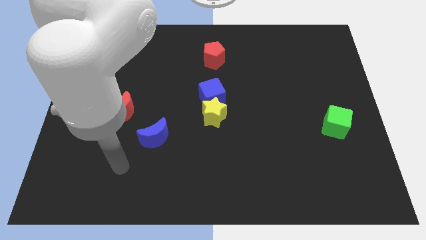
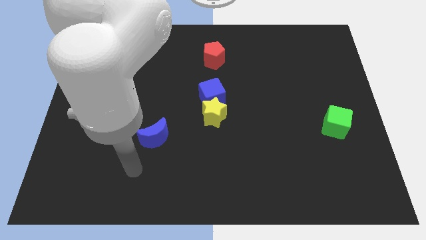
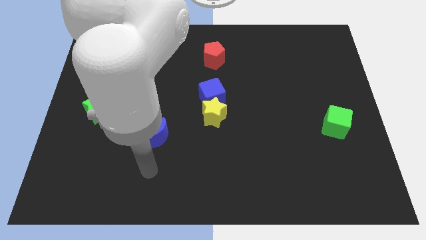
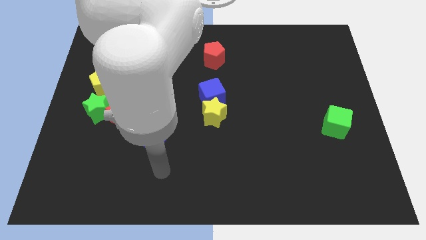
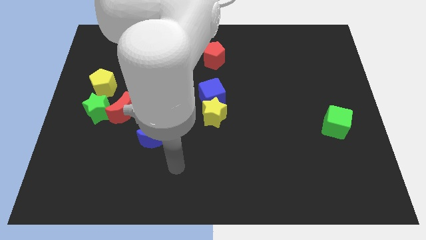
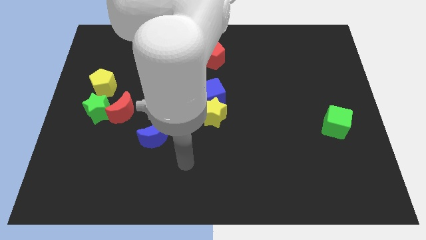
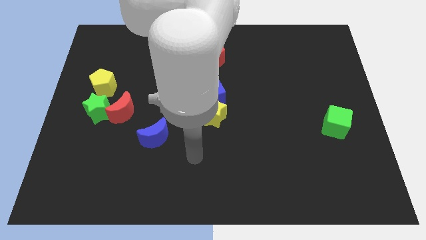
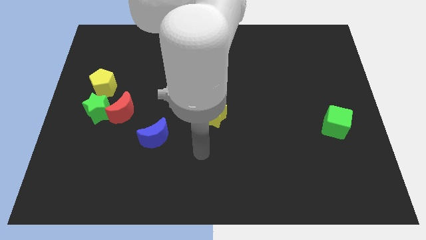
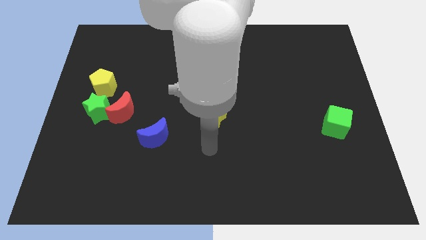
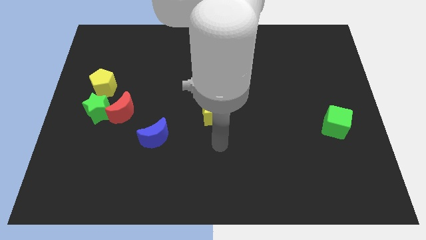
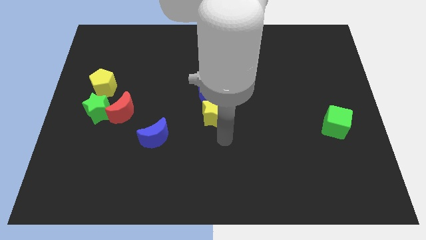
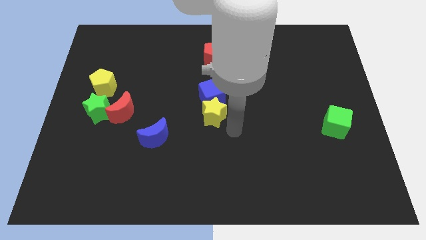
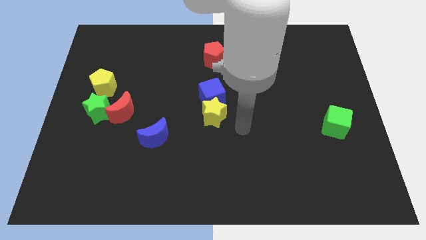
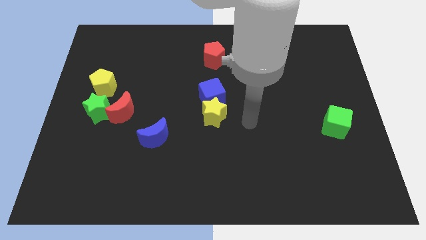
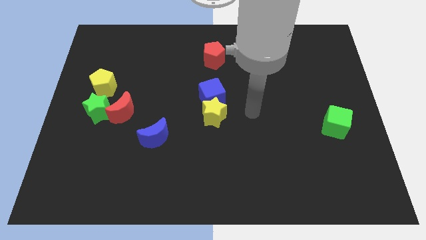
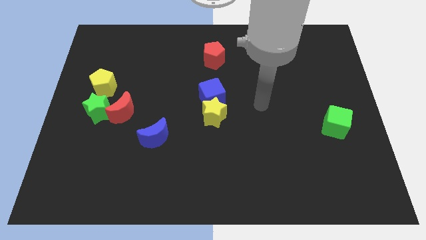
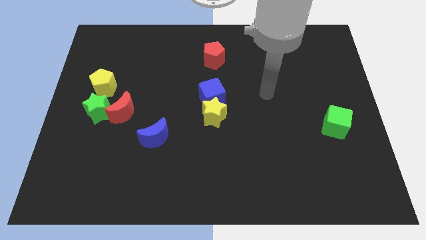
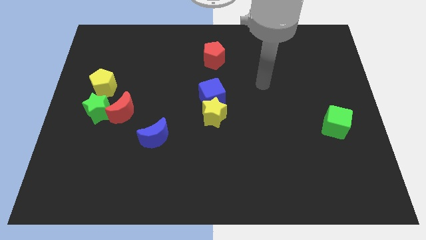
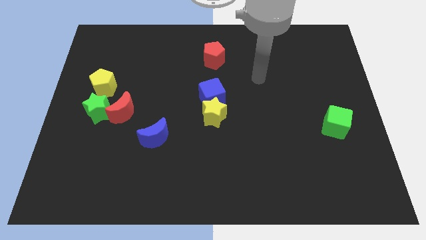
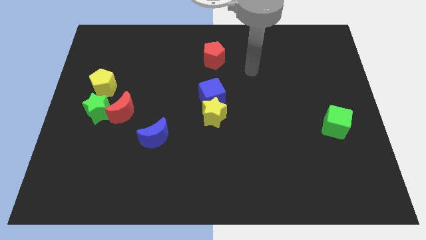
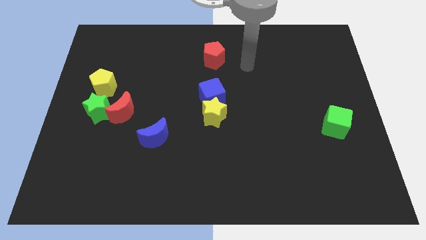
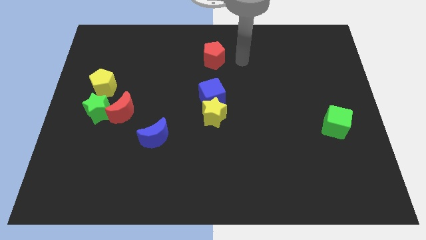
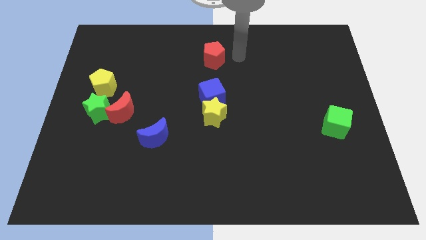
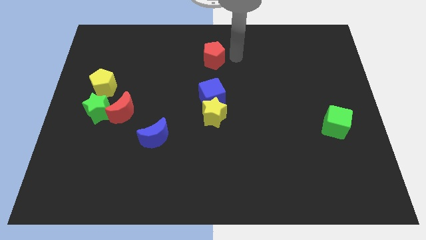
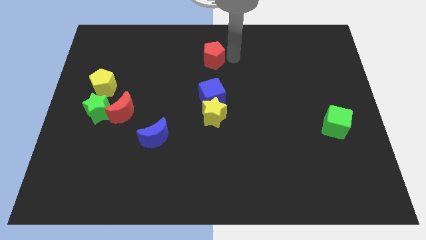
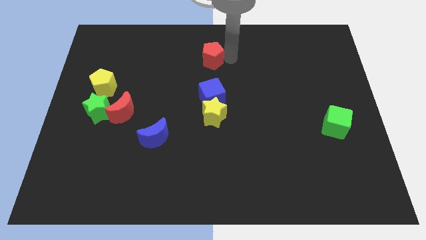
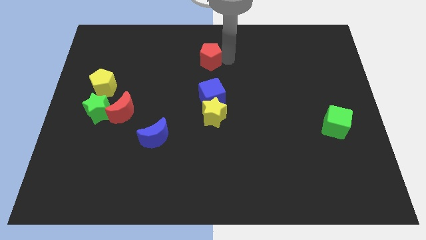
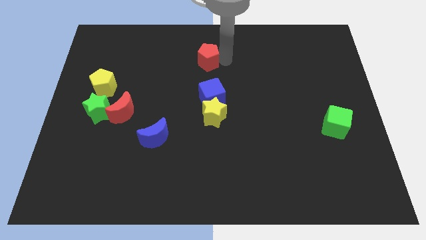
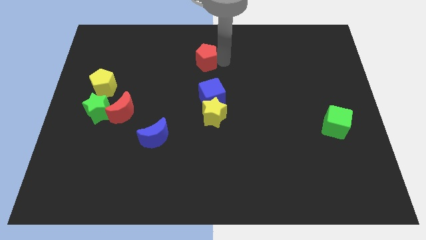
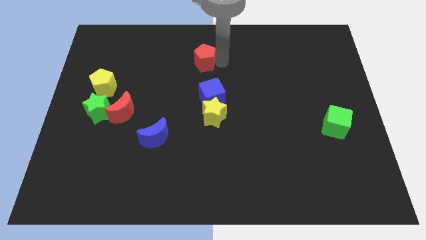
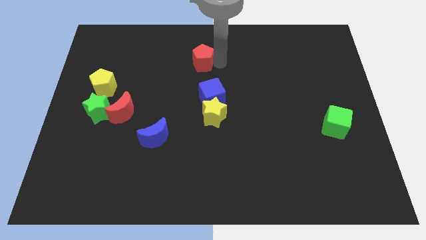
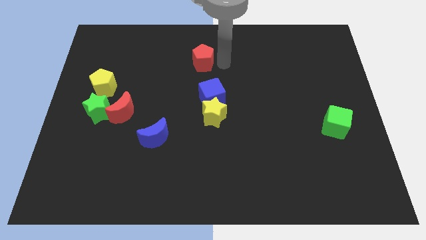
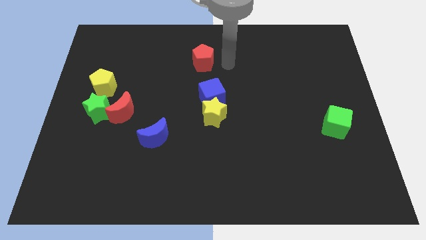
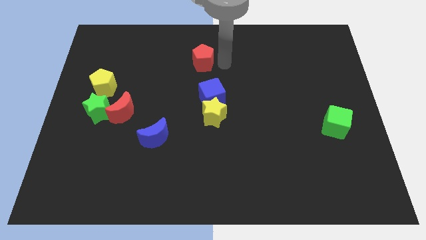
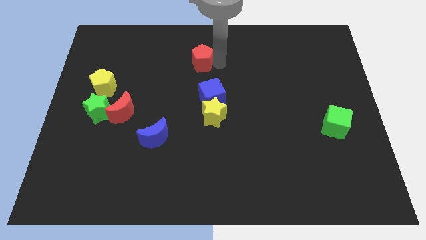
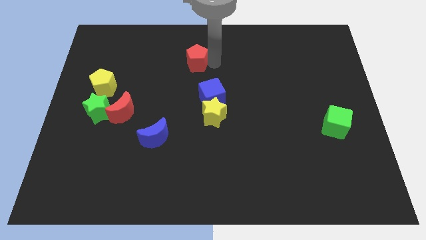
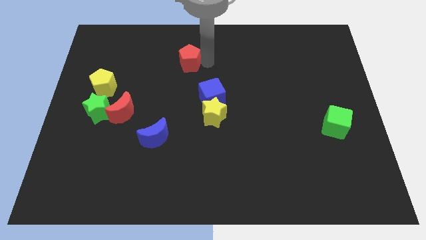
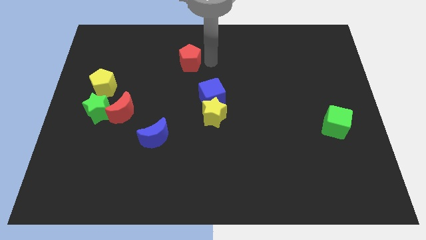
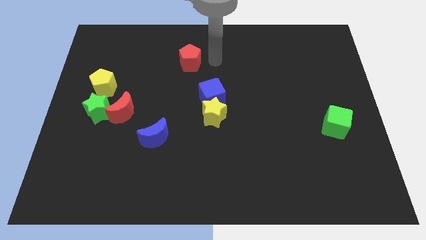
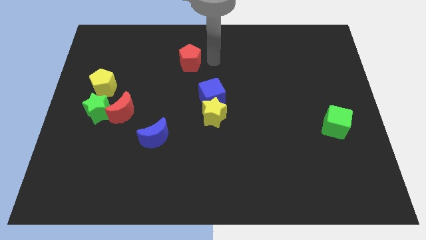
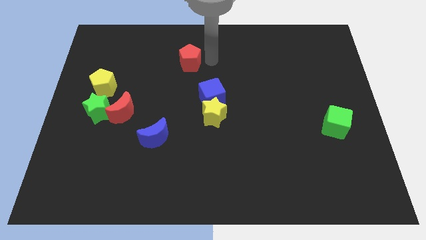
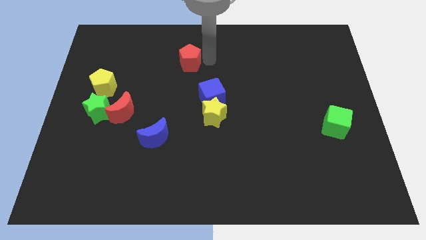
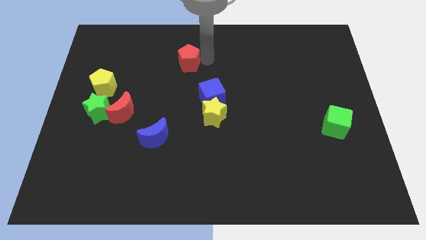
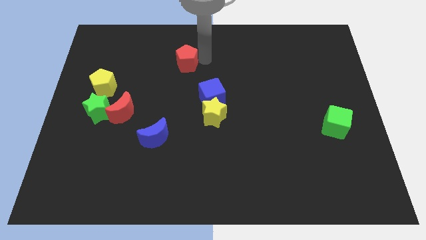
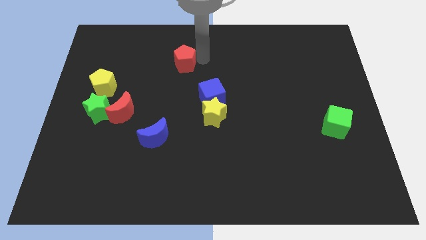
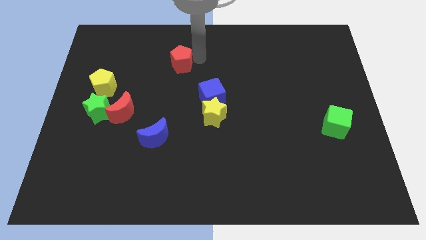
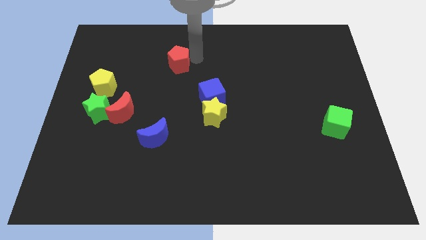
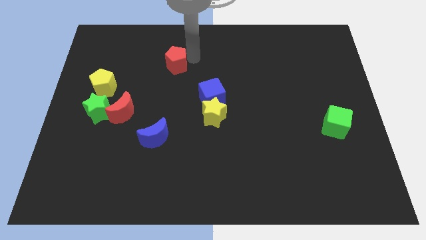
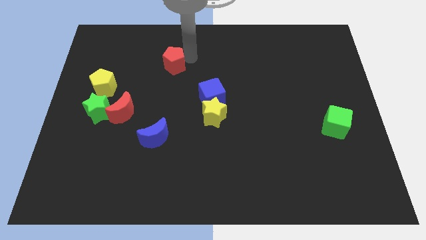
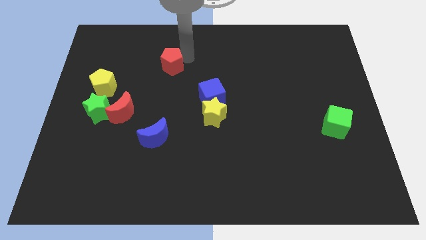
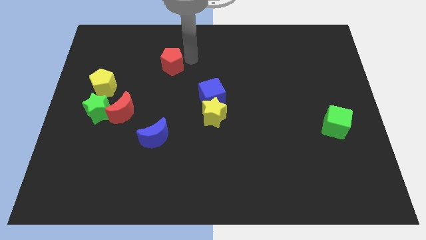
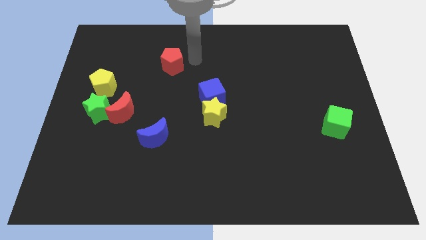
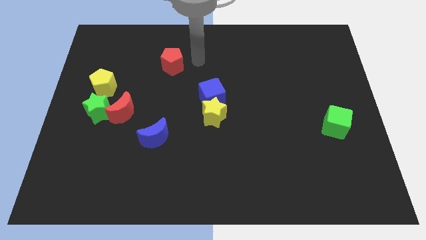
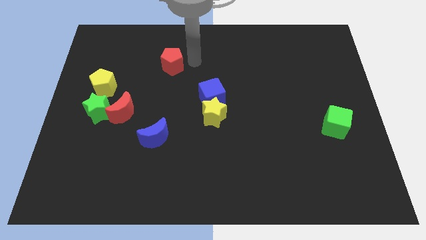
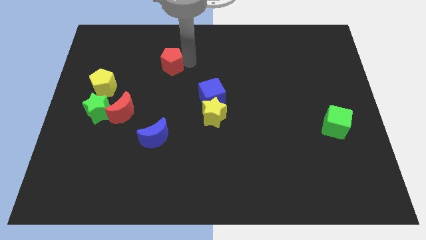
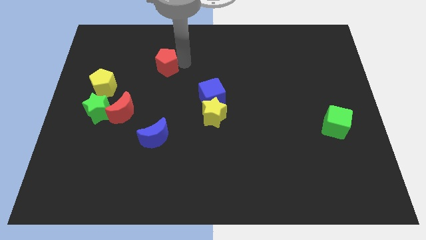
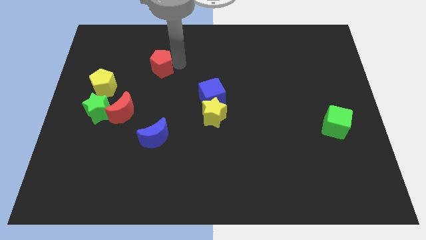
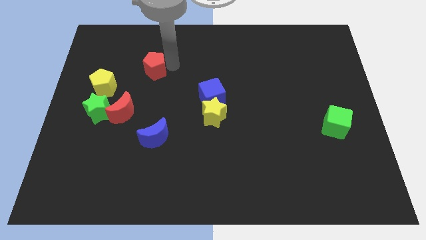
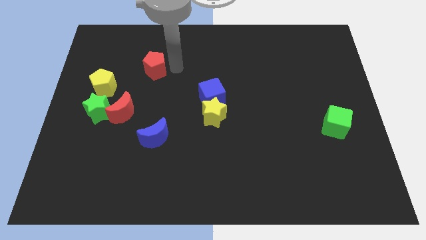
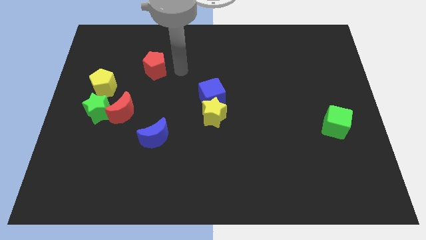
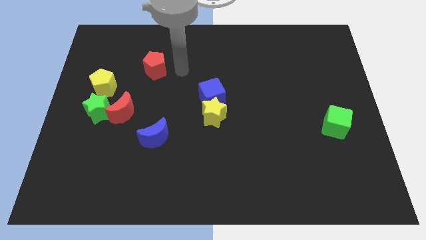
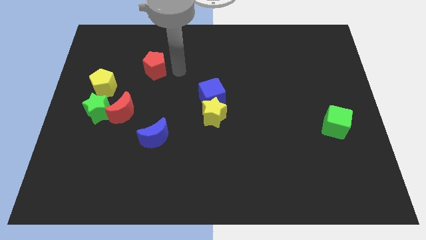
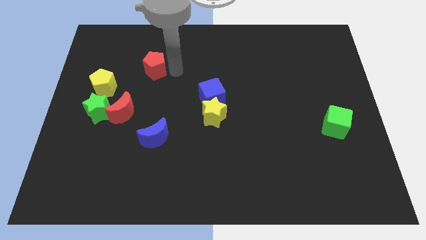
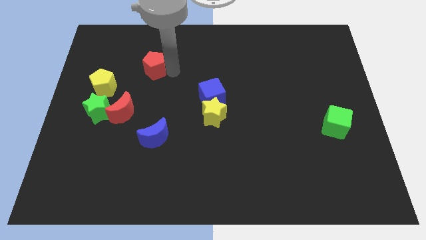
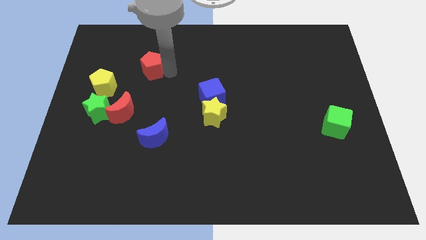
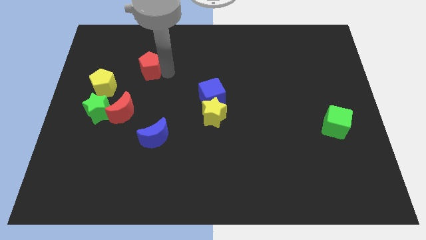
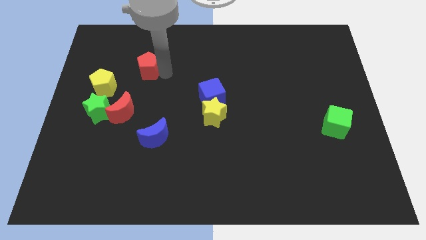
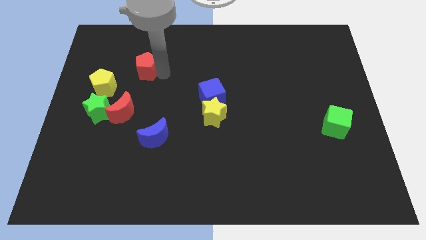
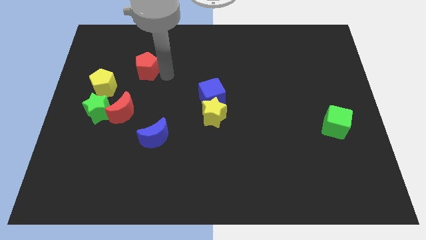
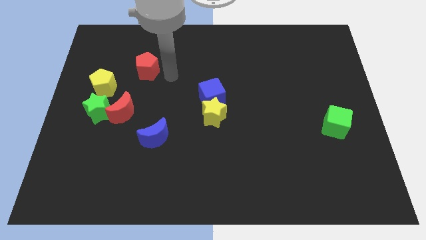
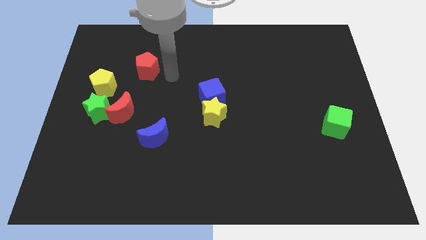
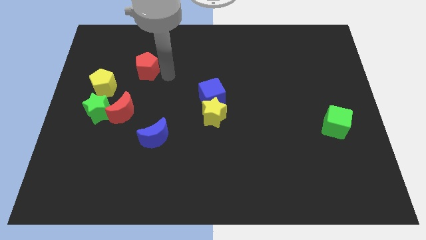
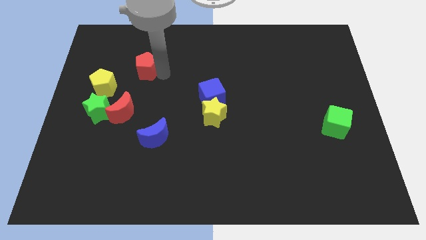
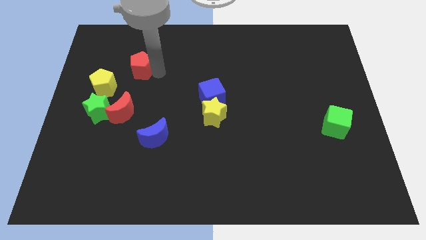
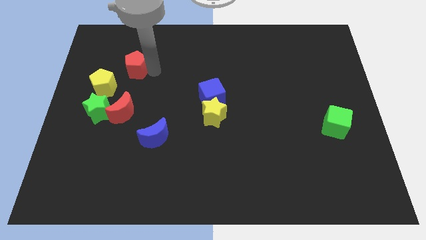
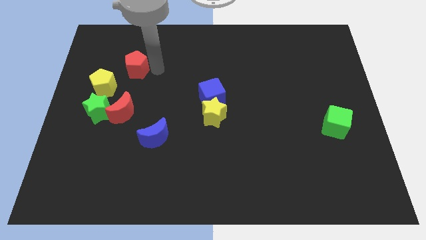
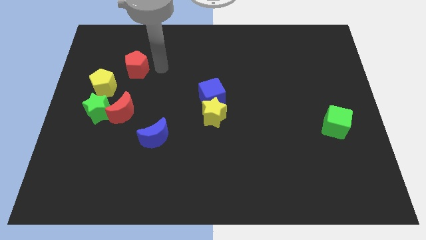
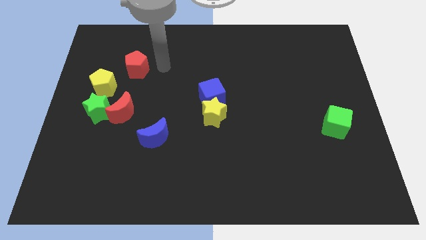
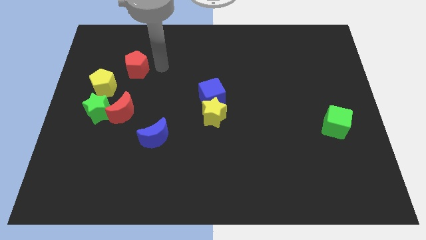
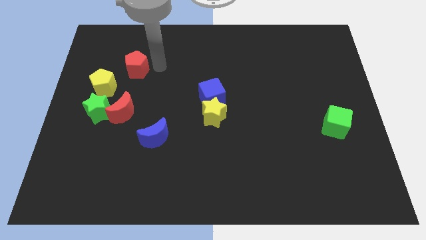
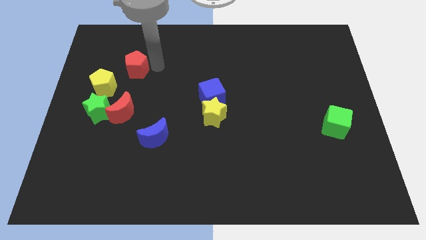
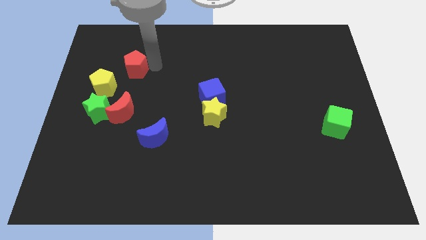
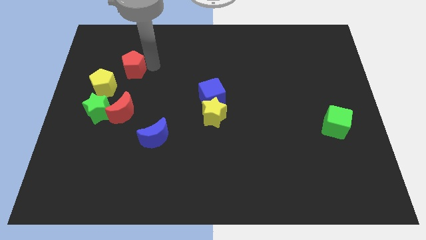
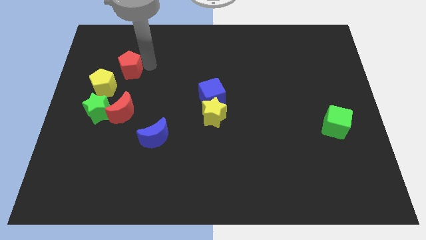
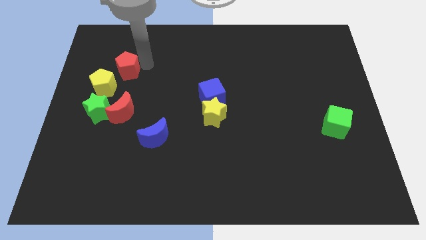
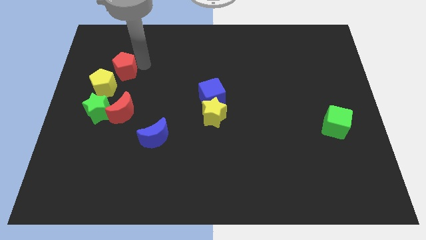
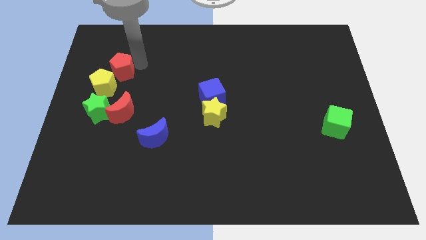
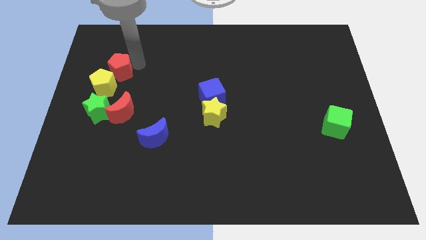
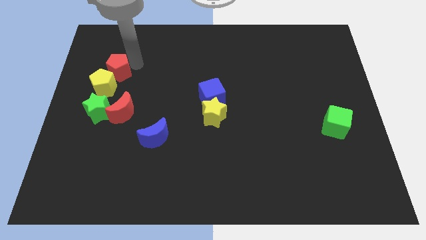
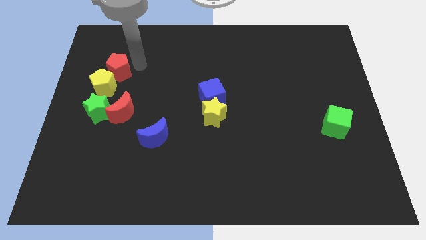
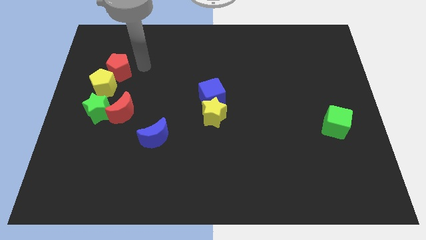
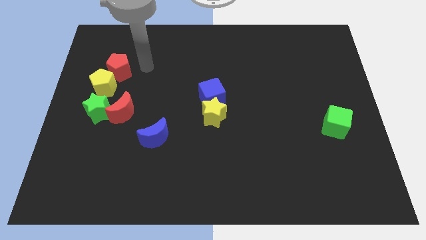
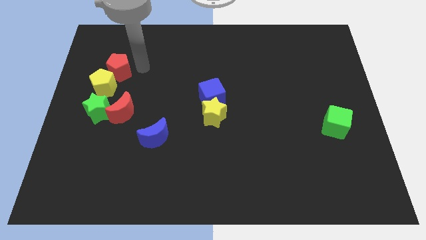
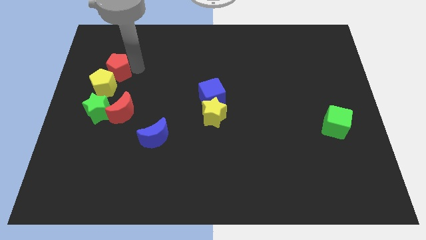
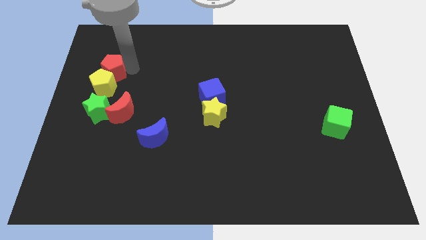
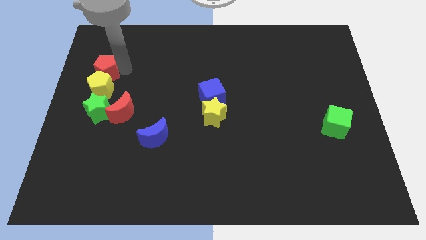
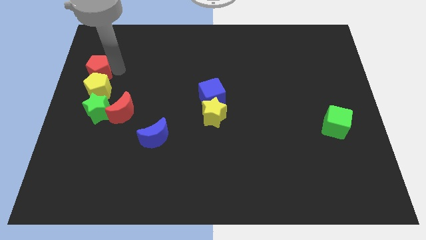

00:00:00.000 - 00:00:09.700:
push the red pentagon to the center left
